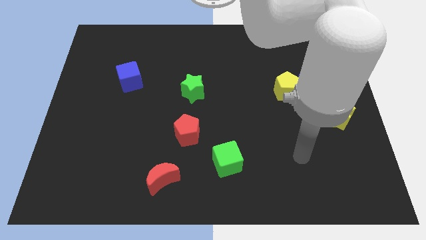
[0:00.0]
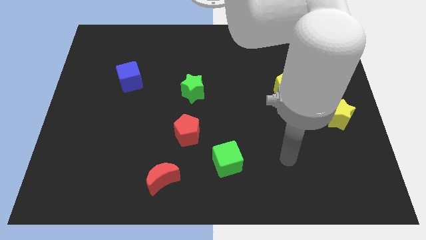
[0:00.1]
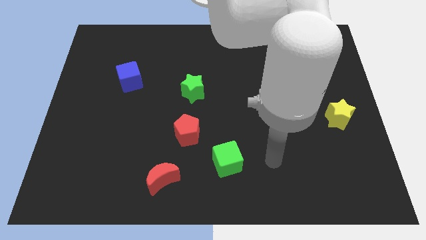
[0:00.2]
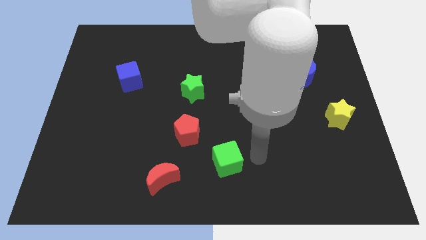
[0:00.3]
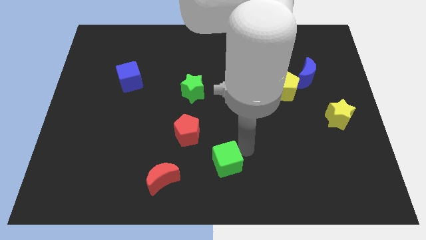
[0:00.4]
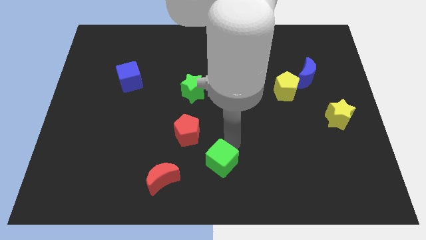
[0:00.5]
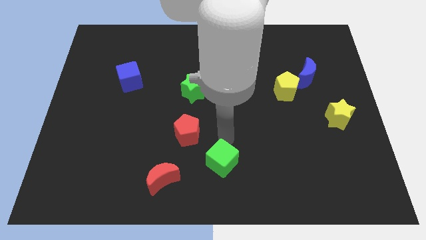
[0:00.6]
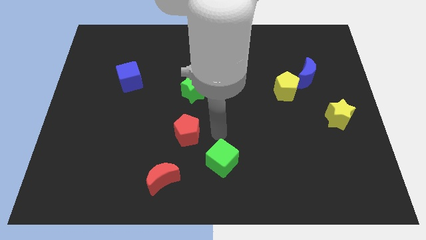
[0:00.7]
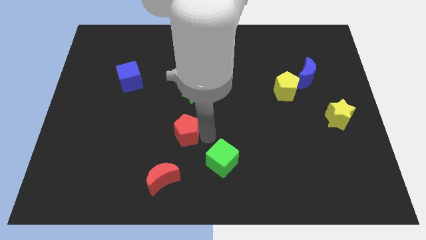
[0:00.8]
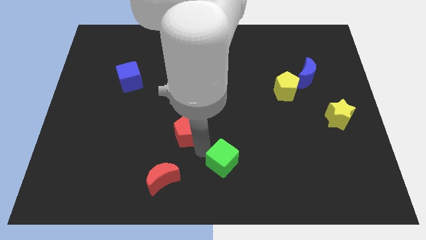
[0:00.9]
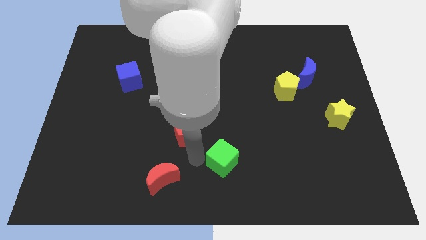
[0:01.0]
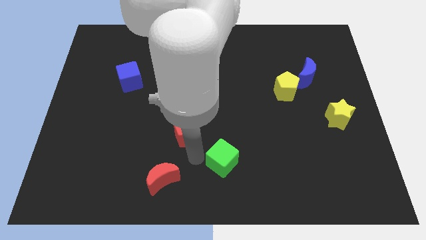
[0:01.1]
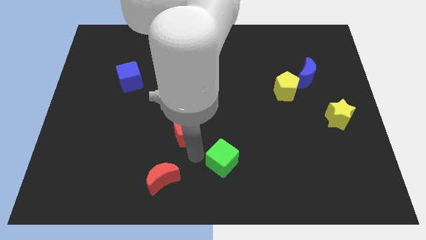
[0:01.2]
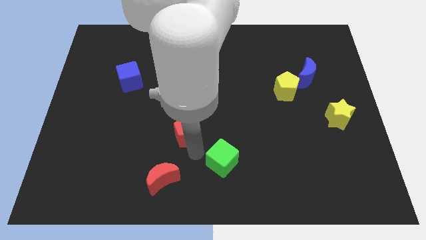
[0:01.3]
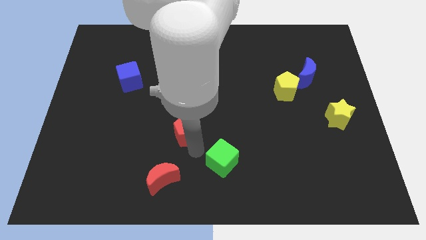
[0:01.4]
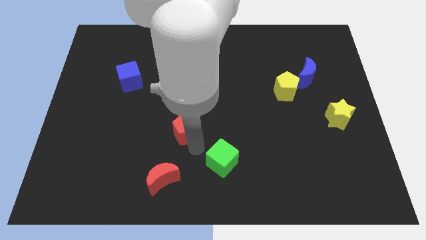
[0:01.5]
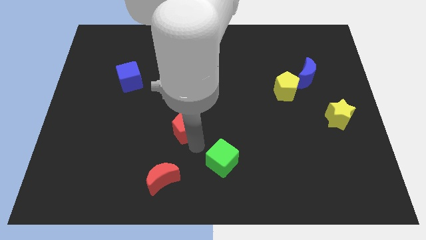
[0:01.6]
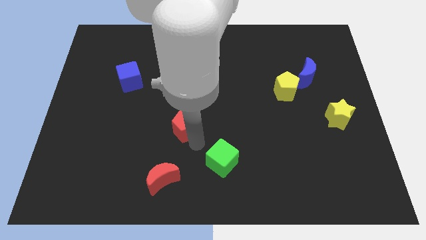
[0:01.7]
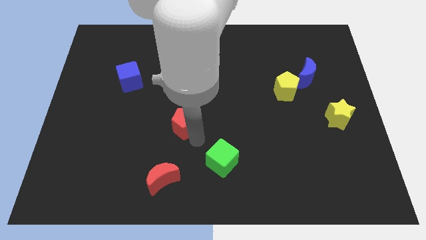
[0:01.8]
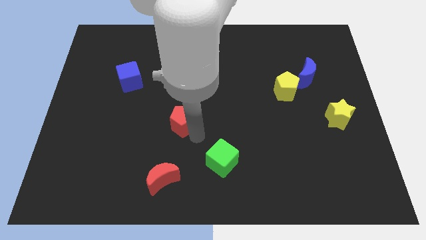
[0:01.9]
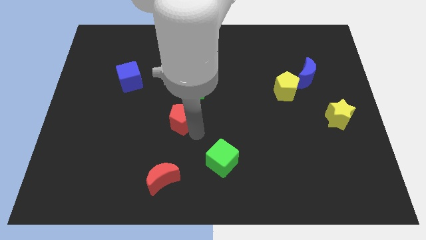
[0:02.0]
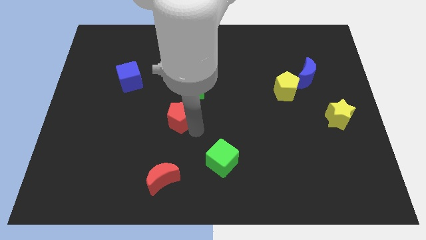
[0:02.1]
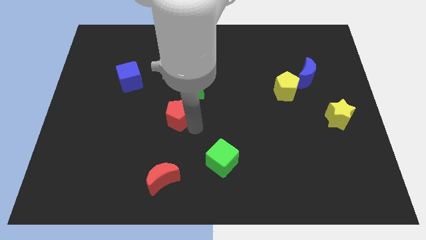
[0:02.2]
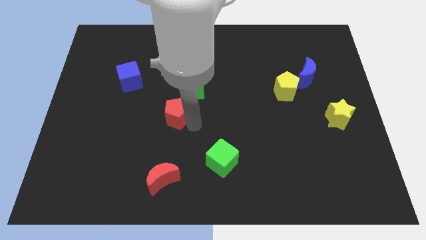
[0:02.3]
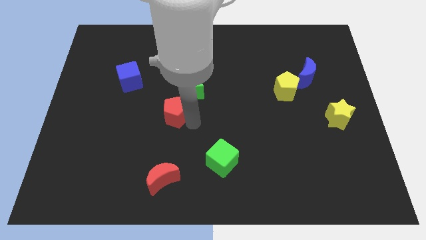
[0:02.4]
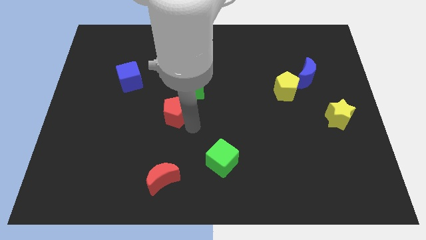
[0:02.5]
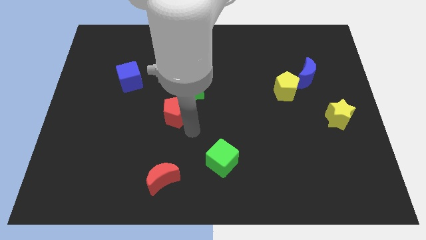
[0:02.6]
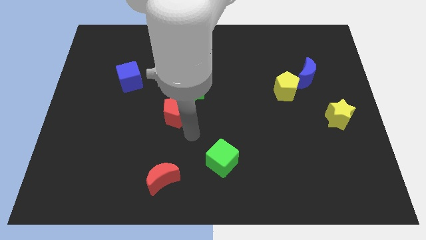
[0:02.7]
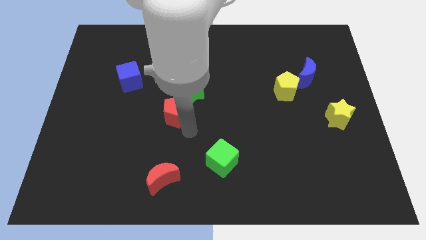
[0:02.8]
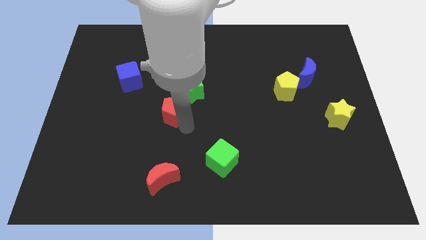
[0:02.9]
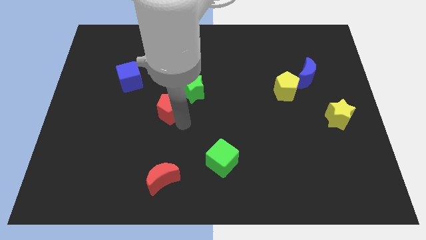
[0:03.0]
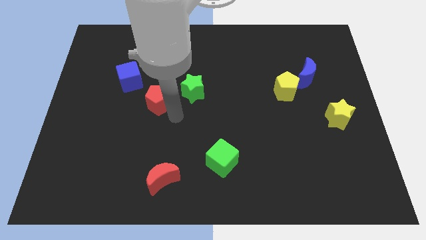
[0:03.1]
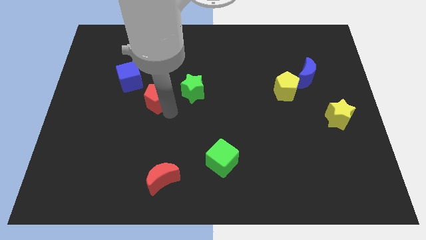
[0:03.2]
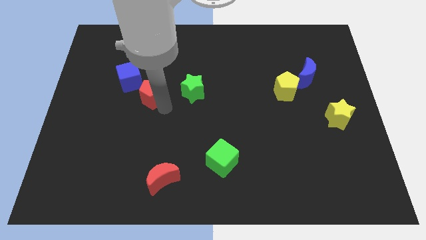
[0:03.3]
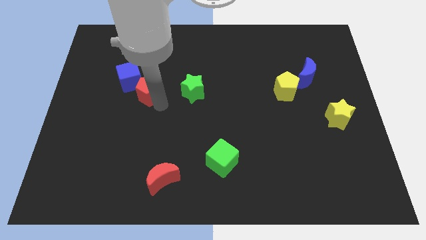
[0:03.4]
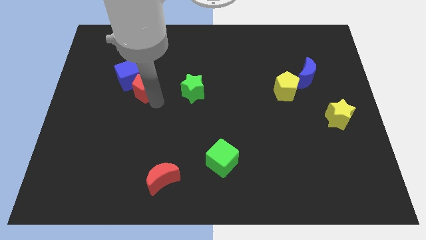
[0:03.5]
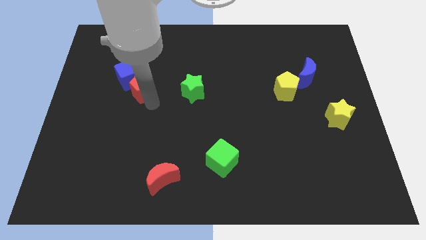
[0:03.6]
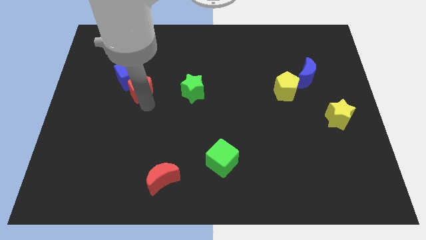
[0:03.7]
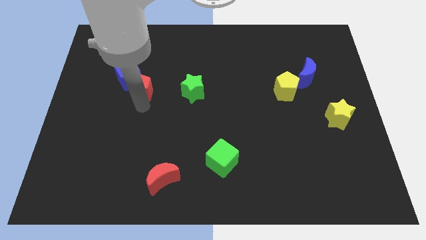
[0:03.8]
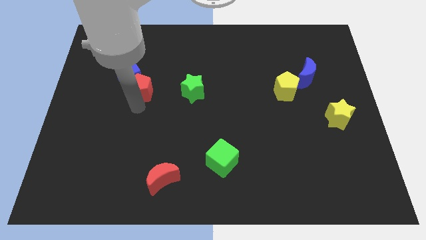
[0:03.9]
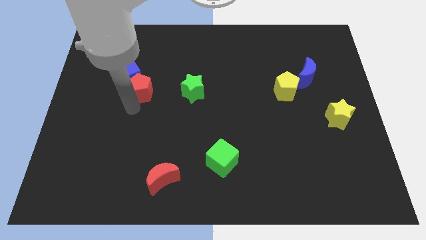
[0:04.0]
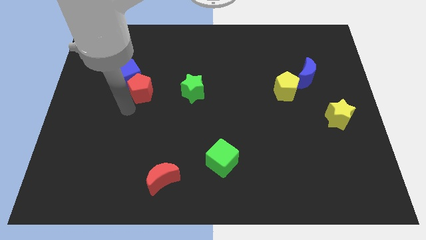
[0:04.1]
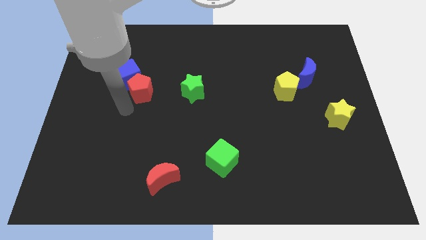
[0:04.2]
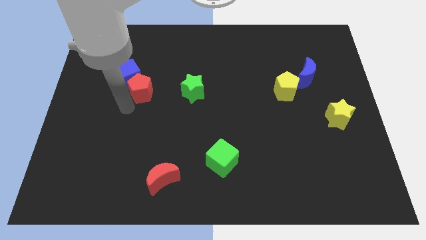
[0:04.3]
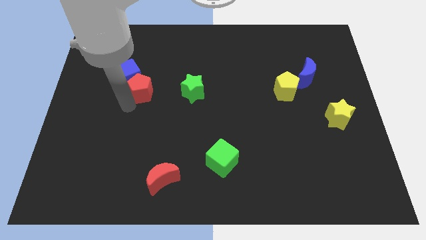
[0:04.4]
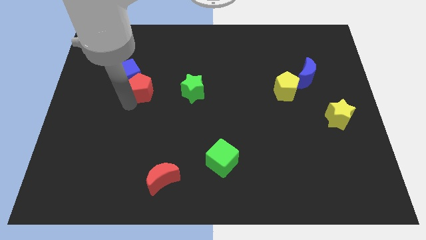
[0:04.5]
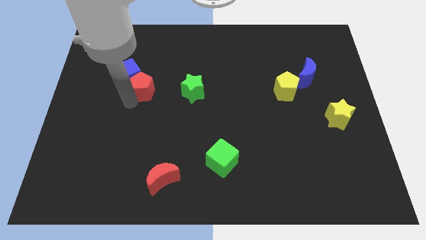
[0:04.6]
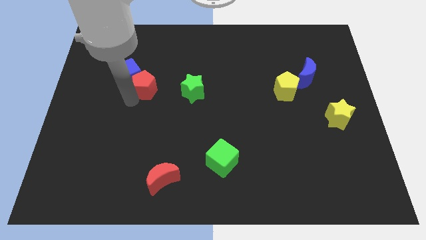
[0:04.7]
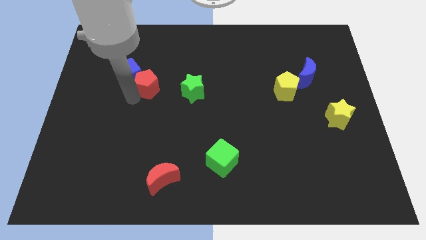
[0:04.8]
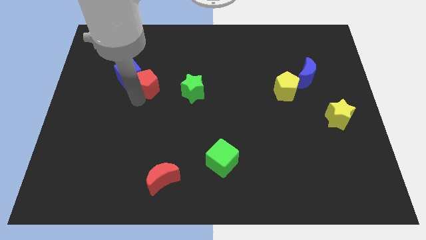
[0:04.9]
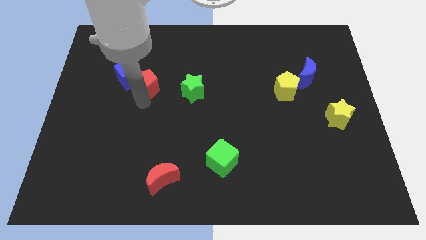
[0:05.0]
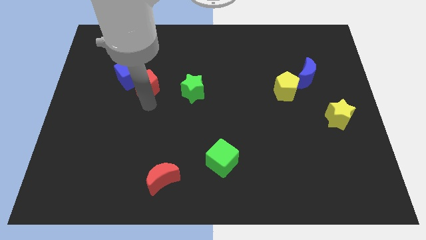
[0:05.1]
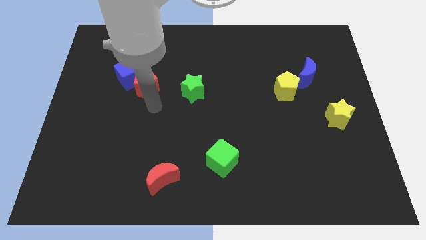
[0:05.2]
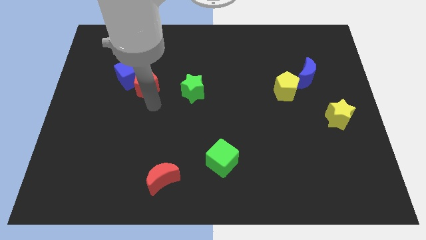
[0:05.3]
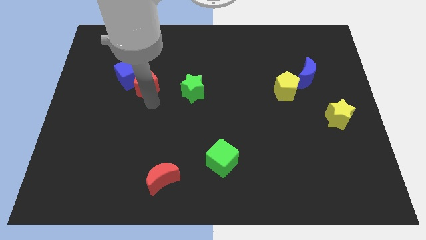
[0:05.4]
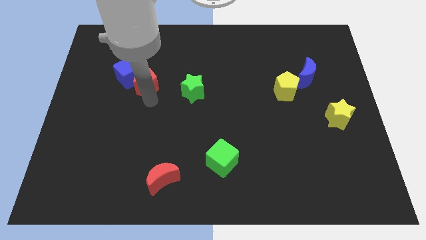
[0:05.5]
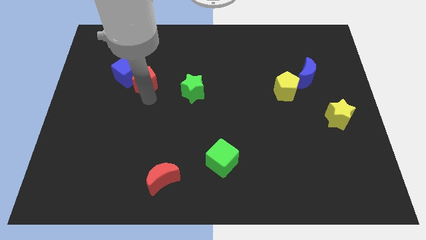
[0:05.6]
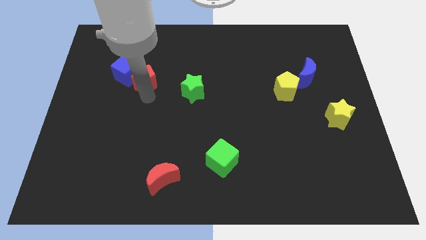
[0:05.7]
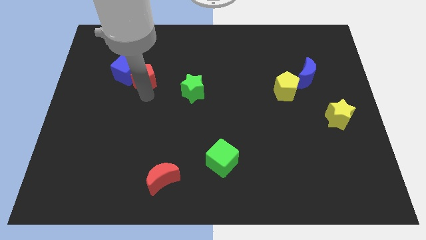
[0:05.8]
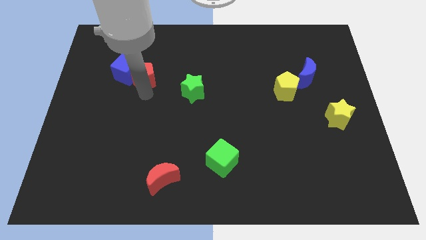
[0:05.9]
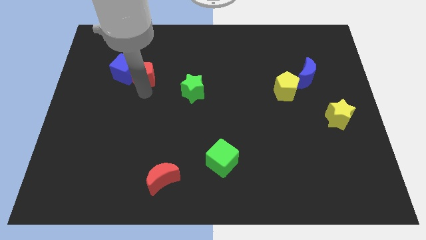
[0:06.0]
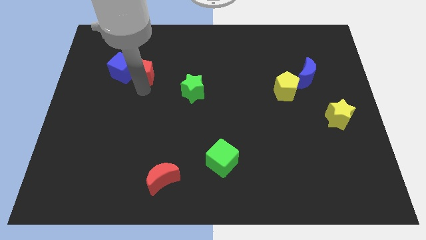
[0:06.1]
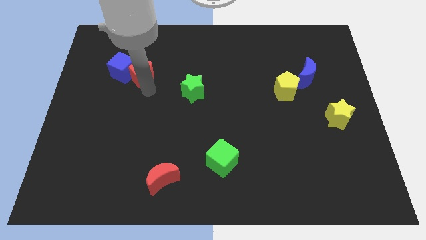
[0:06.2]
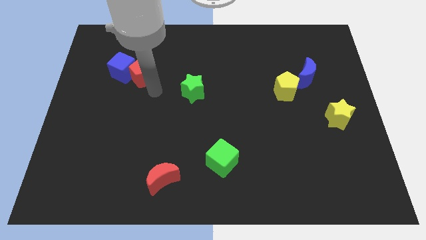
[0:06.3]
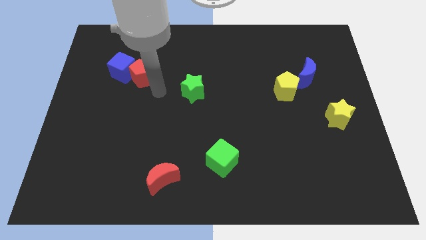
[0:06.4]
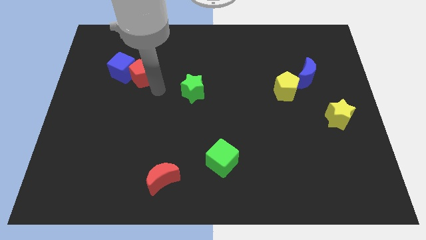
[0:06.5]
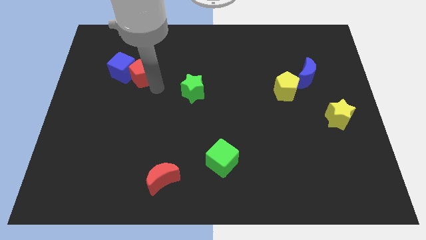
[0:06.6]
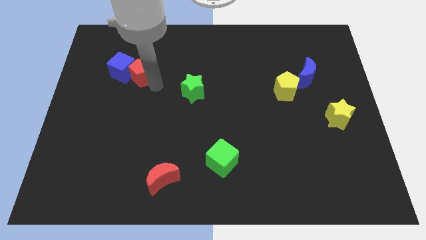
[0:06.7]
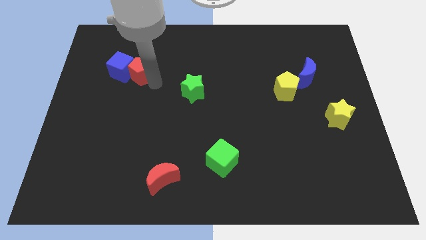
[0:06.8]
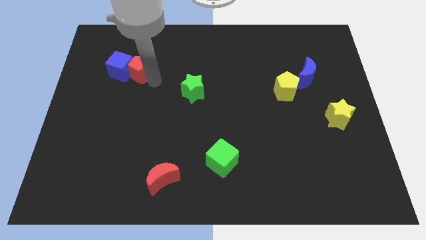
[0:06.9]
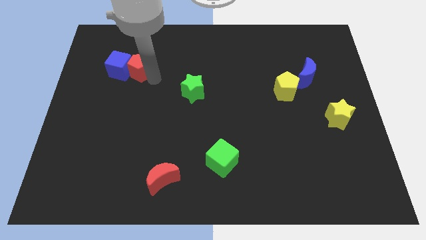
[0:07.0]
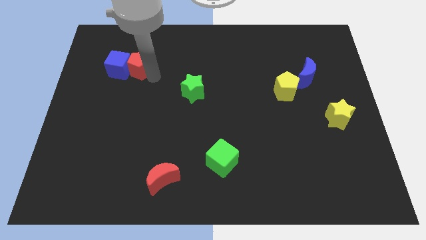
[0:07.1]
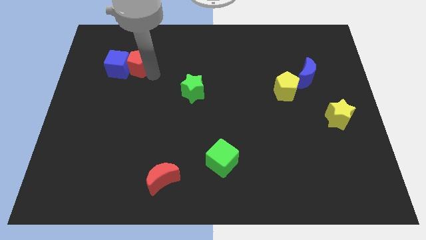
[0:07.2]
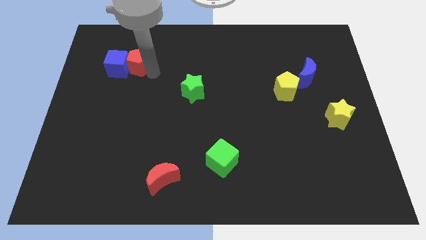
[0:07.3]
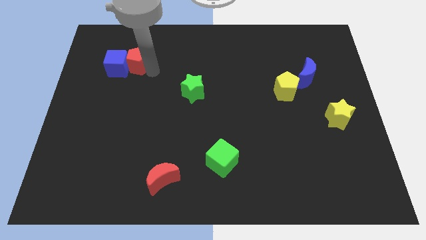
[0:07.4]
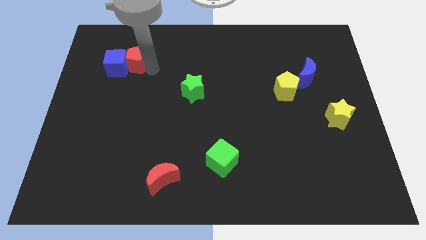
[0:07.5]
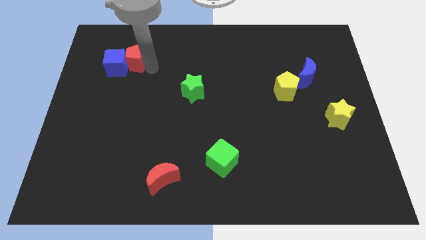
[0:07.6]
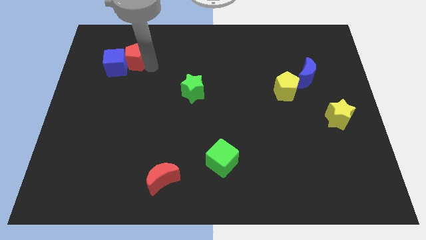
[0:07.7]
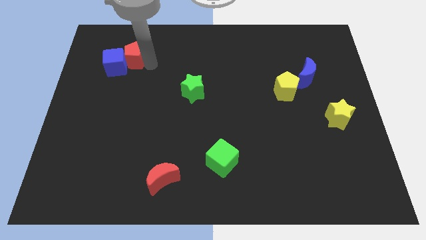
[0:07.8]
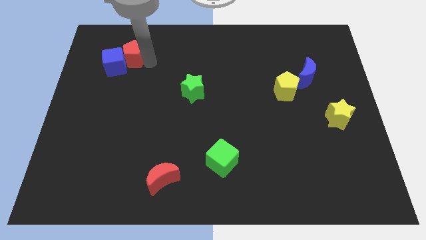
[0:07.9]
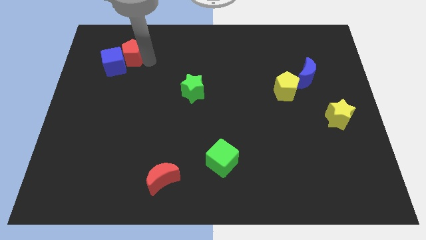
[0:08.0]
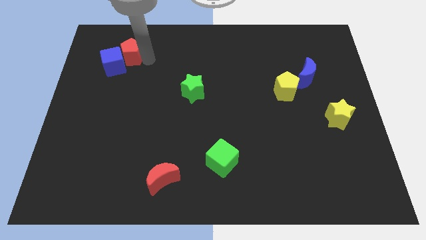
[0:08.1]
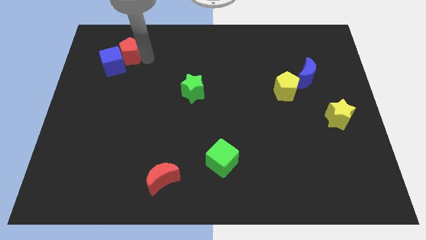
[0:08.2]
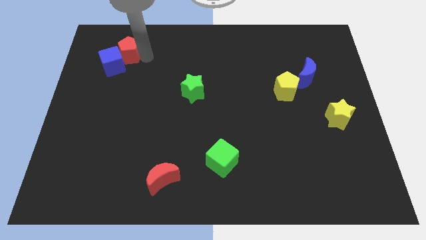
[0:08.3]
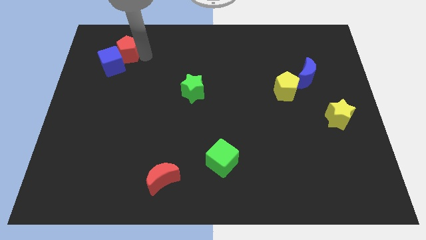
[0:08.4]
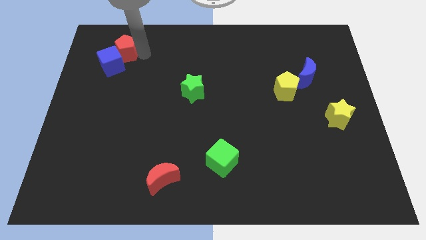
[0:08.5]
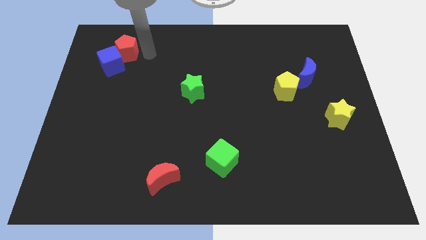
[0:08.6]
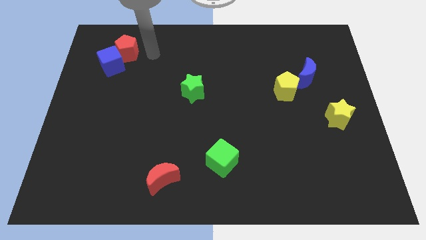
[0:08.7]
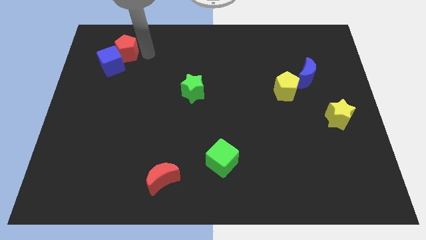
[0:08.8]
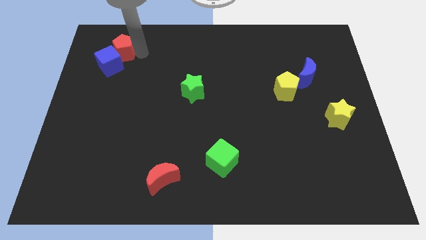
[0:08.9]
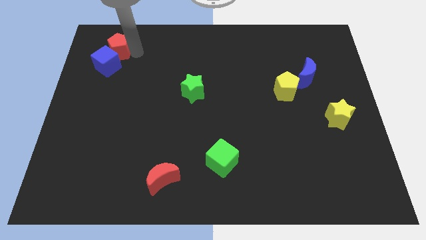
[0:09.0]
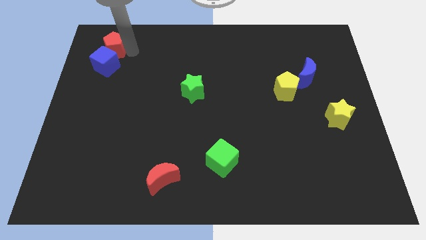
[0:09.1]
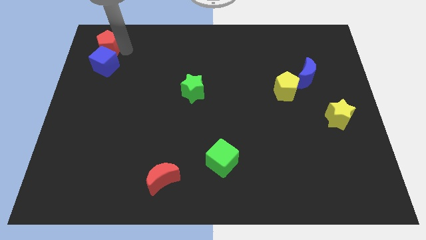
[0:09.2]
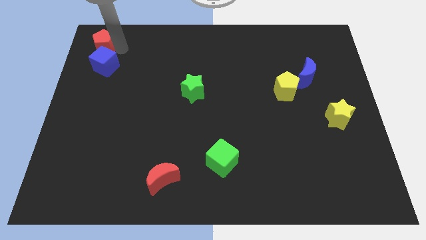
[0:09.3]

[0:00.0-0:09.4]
put the red pentagon to the top left corner
